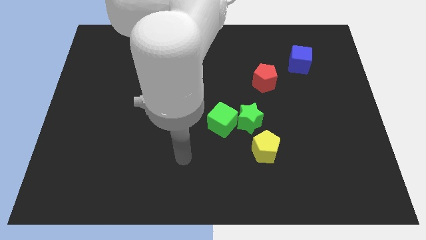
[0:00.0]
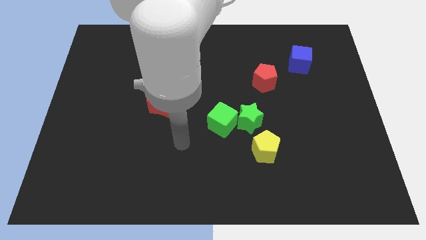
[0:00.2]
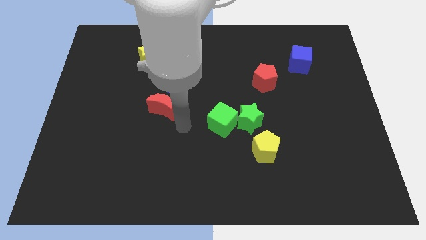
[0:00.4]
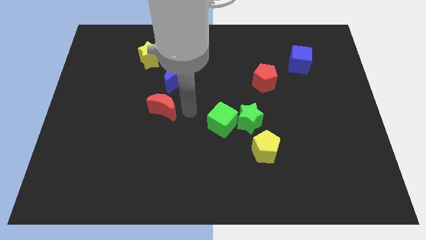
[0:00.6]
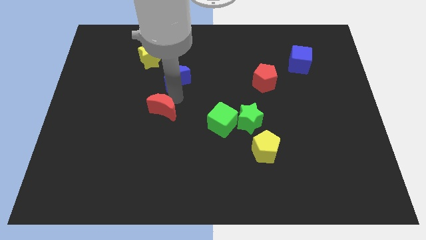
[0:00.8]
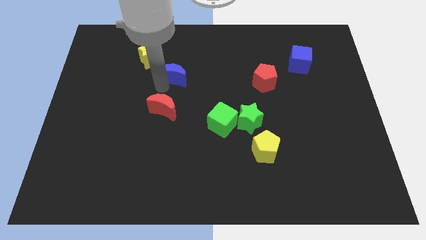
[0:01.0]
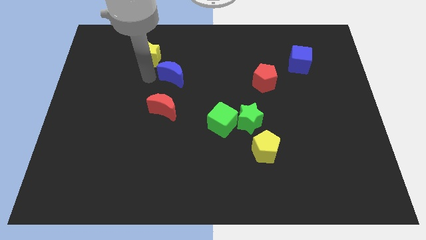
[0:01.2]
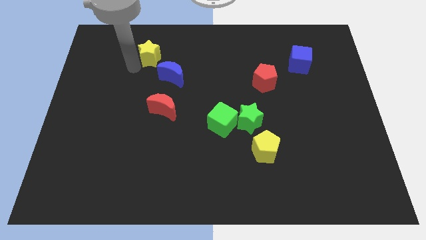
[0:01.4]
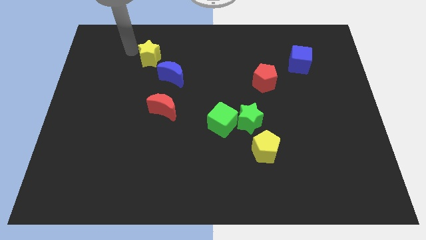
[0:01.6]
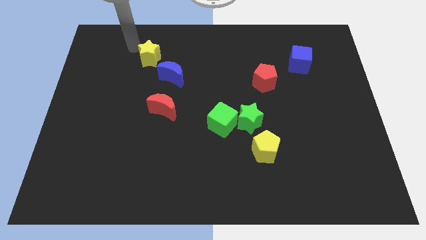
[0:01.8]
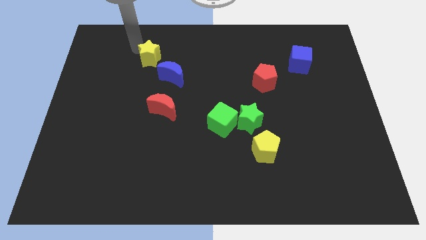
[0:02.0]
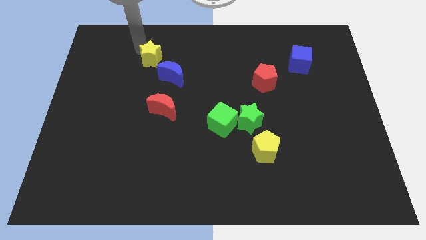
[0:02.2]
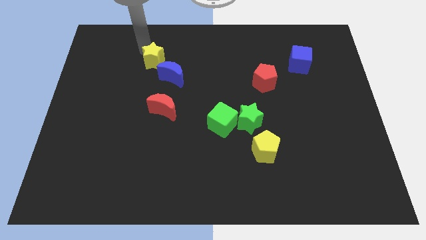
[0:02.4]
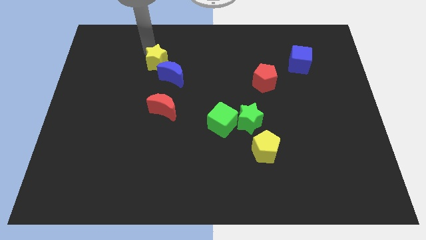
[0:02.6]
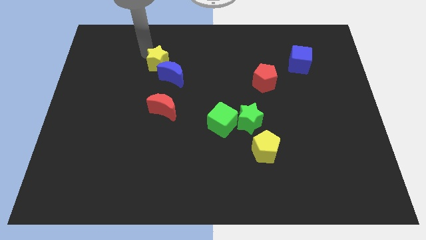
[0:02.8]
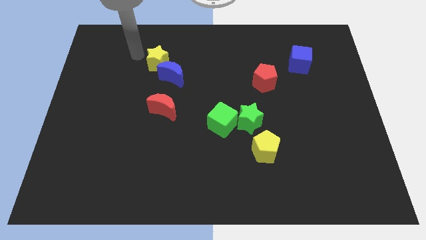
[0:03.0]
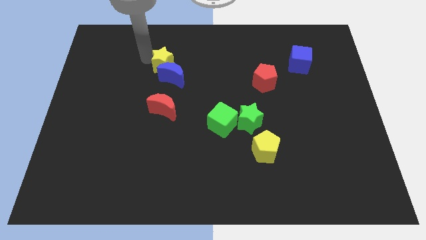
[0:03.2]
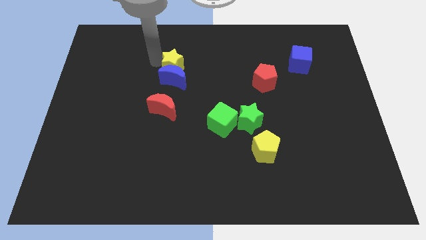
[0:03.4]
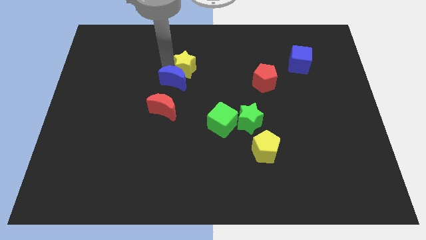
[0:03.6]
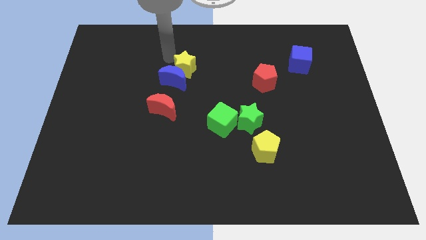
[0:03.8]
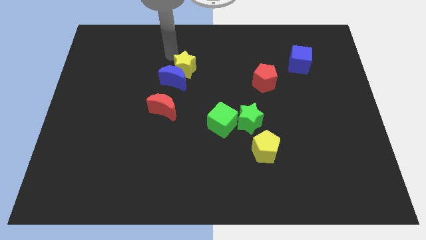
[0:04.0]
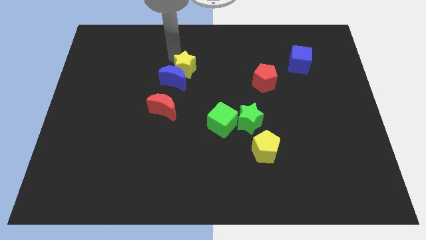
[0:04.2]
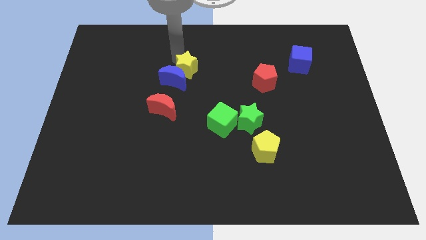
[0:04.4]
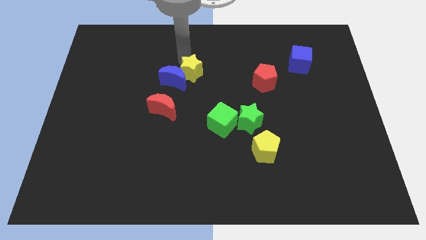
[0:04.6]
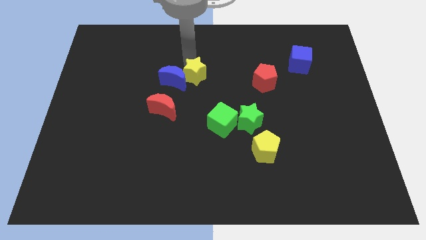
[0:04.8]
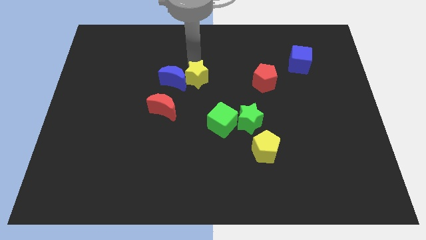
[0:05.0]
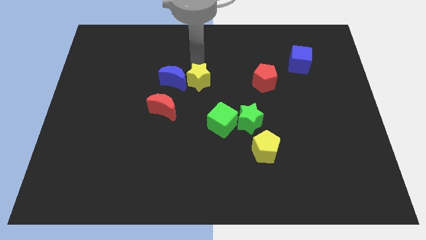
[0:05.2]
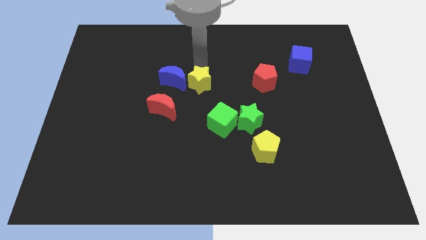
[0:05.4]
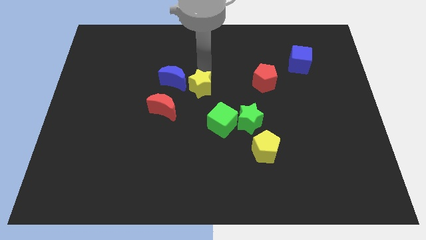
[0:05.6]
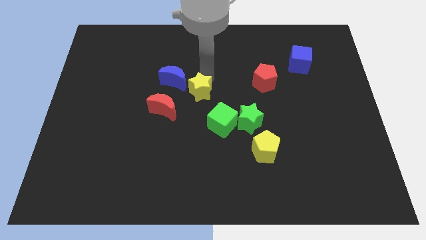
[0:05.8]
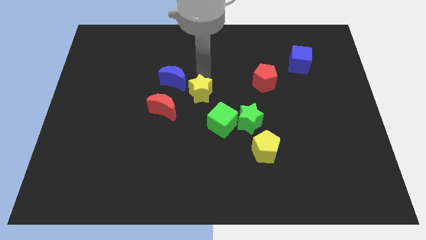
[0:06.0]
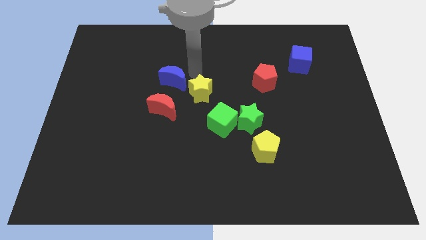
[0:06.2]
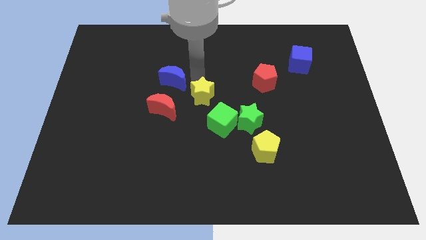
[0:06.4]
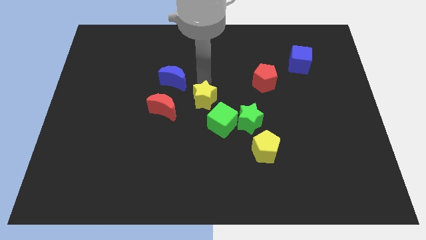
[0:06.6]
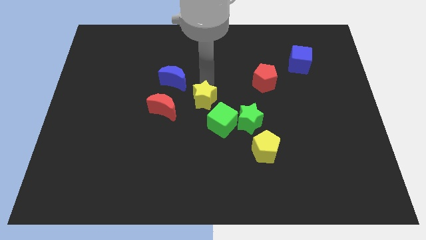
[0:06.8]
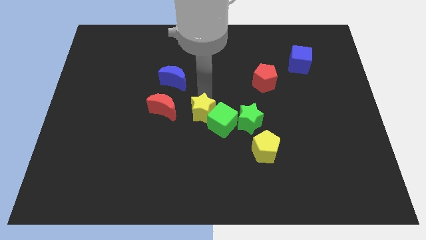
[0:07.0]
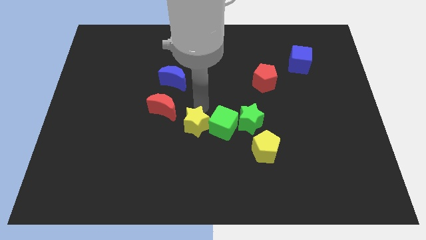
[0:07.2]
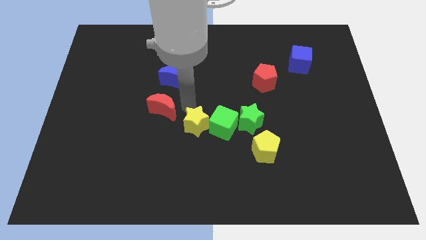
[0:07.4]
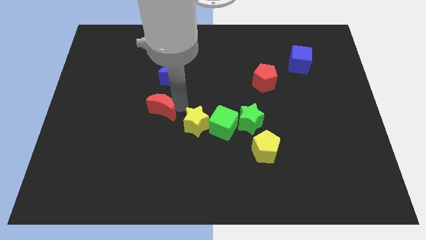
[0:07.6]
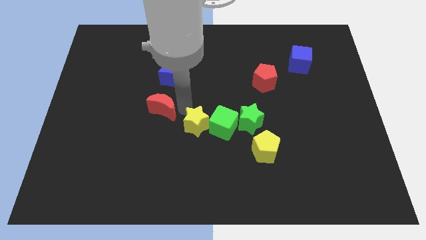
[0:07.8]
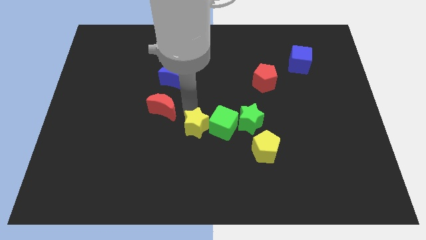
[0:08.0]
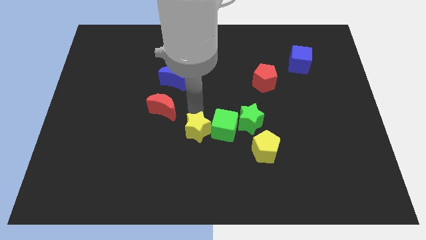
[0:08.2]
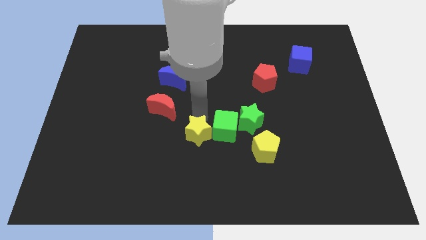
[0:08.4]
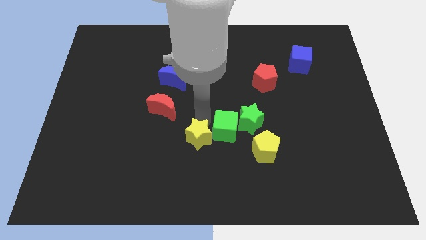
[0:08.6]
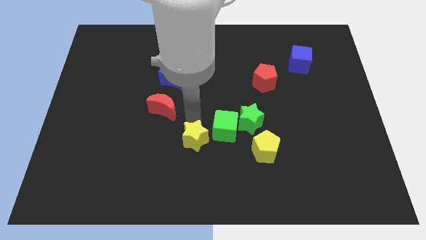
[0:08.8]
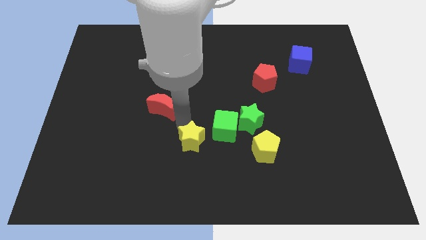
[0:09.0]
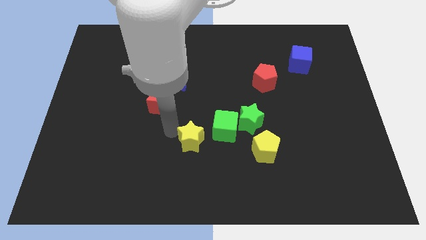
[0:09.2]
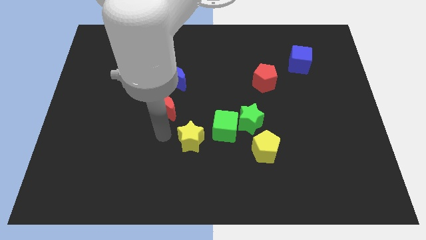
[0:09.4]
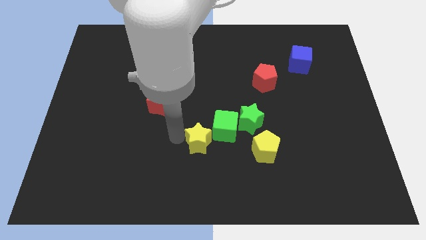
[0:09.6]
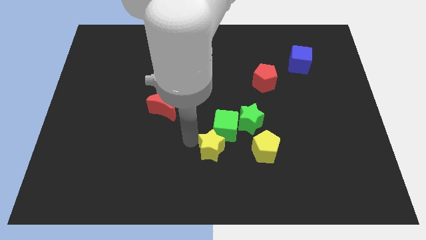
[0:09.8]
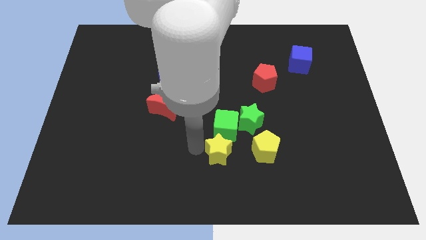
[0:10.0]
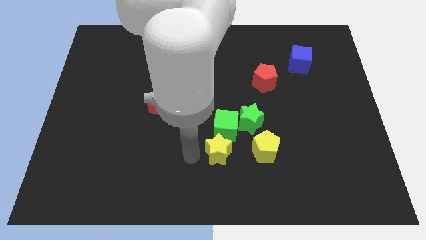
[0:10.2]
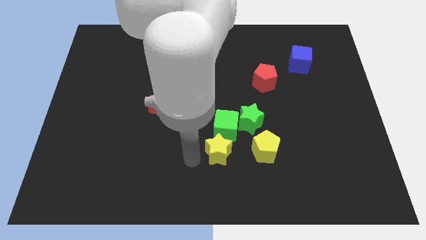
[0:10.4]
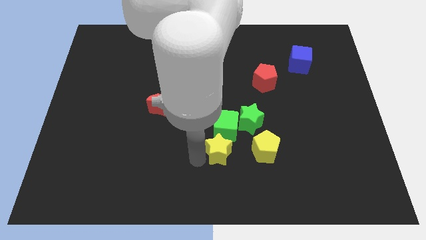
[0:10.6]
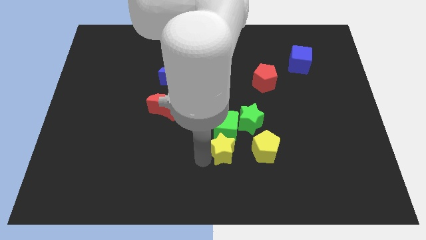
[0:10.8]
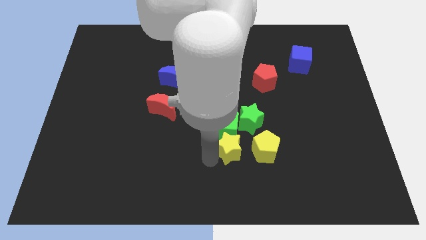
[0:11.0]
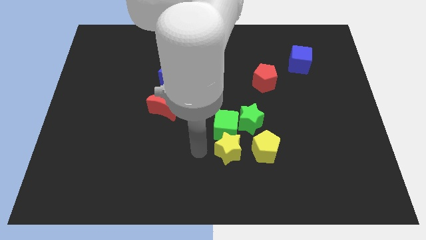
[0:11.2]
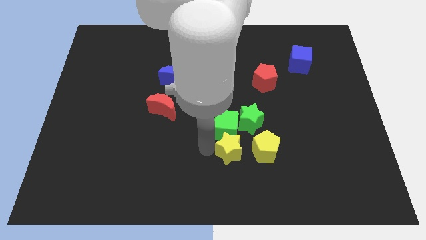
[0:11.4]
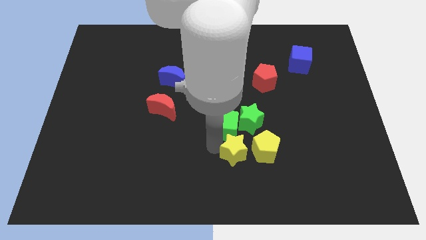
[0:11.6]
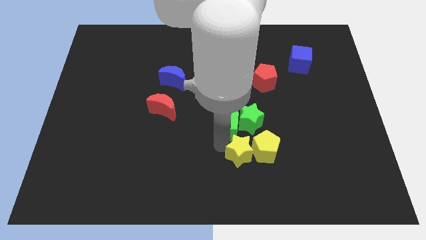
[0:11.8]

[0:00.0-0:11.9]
push the yellow star next to the yellow pentagon

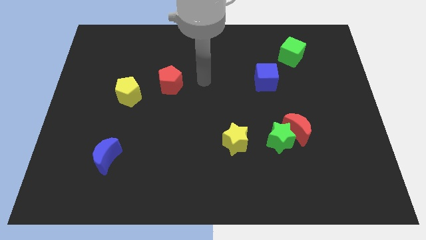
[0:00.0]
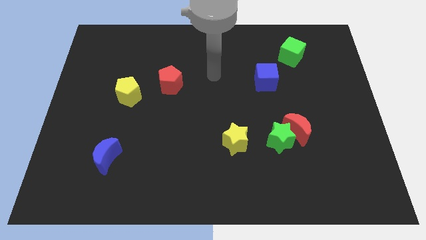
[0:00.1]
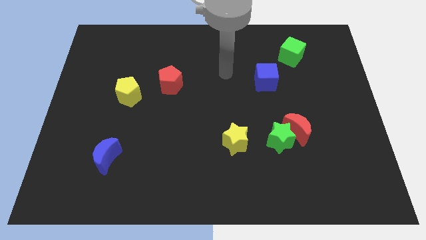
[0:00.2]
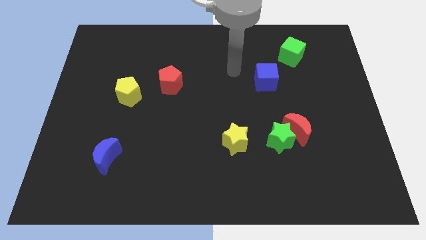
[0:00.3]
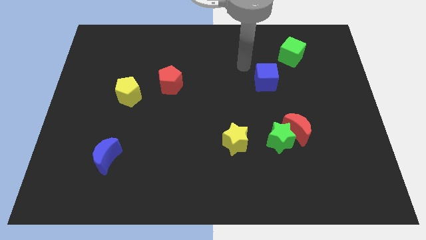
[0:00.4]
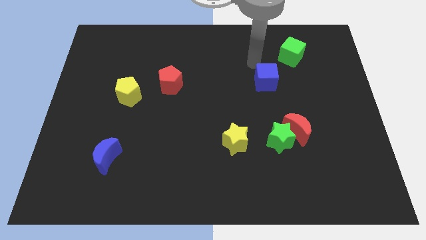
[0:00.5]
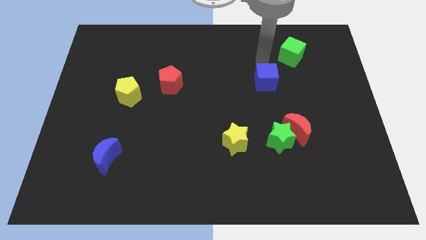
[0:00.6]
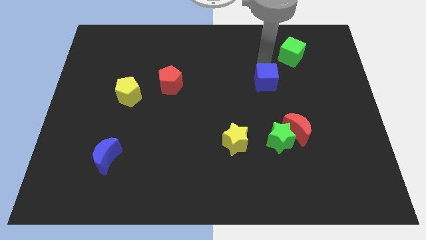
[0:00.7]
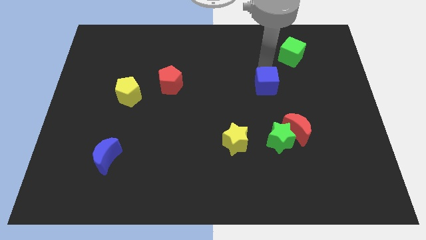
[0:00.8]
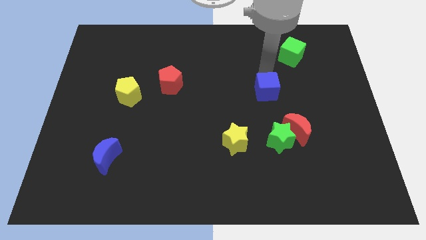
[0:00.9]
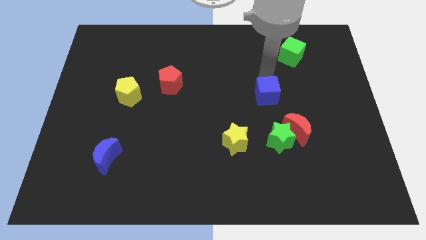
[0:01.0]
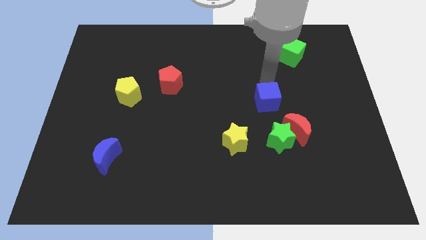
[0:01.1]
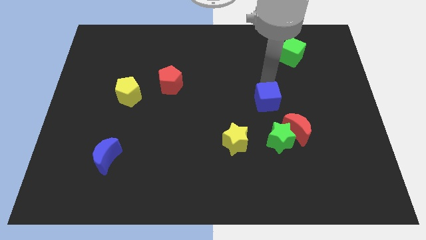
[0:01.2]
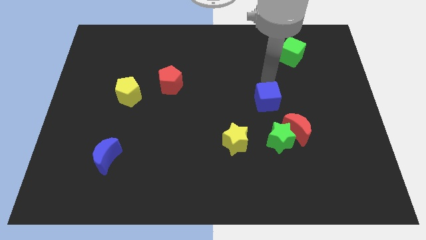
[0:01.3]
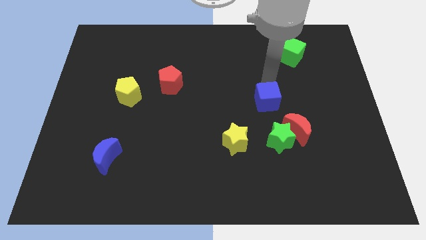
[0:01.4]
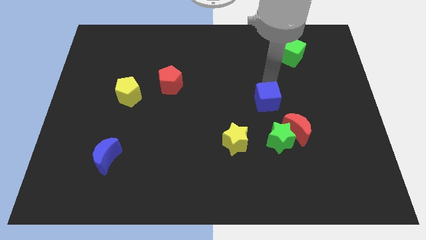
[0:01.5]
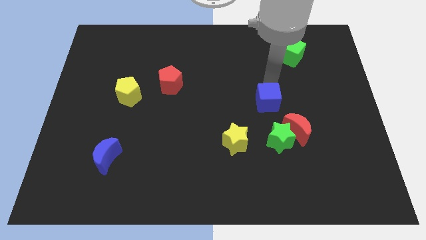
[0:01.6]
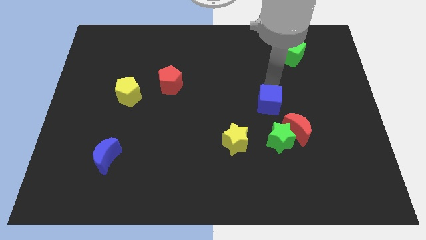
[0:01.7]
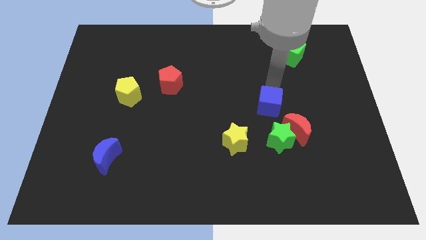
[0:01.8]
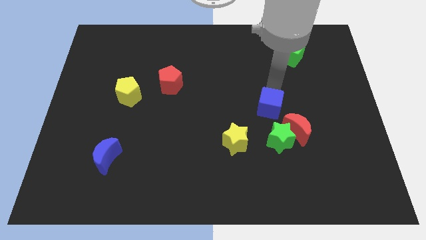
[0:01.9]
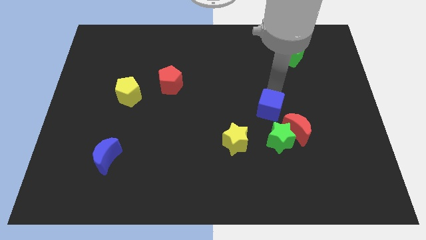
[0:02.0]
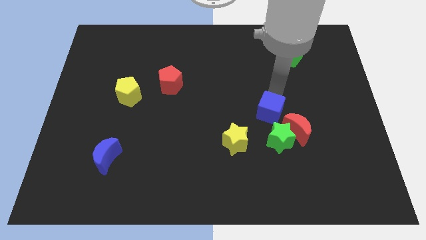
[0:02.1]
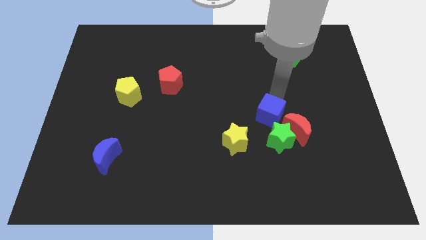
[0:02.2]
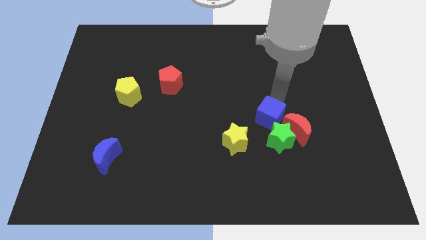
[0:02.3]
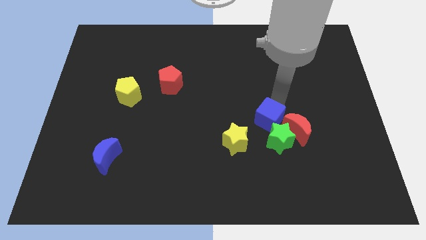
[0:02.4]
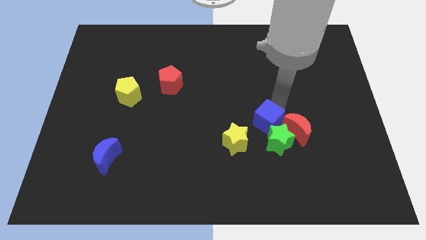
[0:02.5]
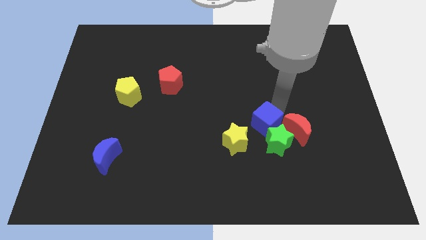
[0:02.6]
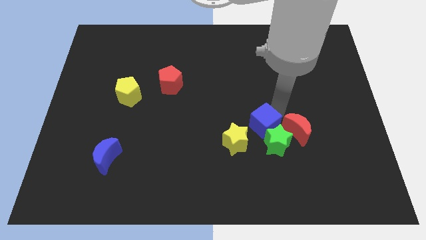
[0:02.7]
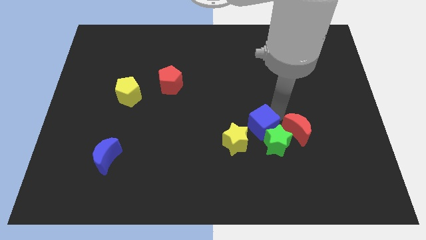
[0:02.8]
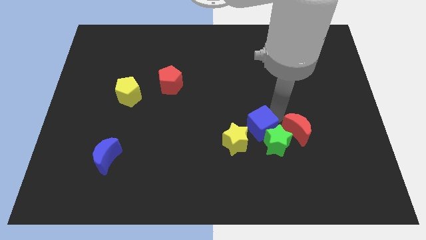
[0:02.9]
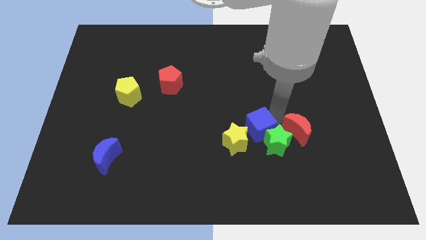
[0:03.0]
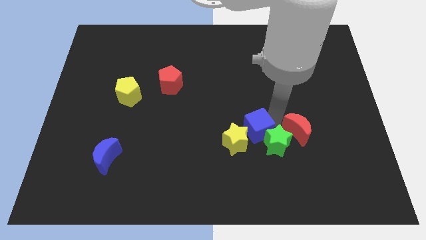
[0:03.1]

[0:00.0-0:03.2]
put the blue cube towards the yellow star
